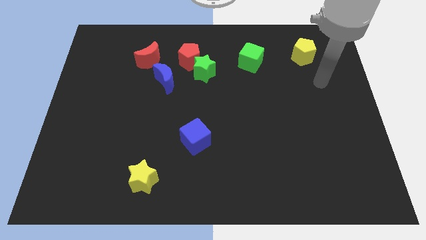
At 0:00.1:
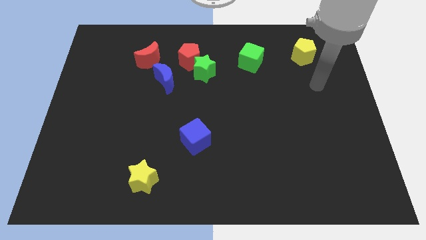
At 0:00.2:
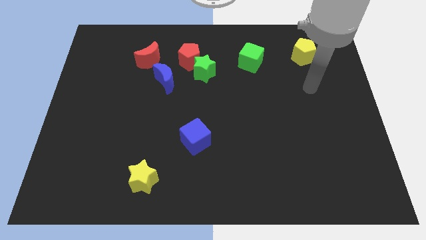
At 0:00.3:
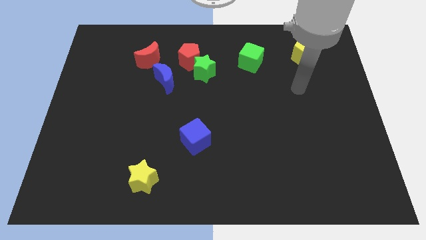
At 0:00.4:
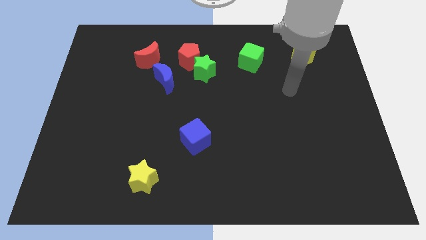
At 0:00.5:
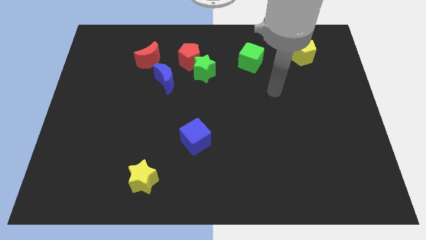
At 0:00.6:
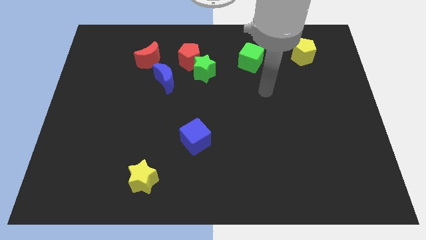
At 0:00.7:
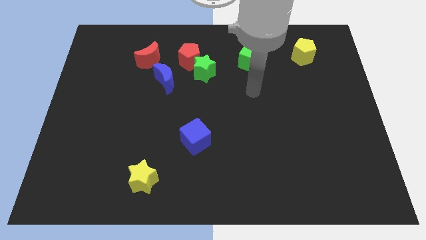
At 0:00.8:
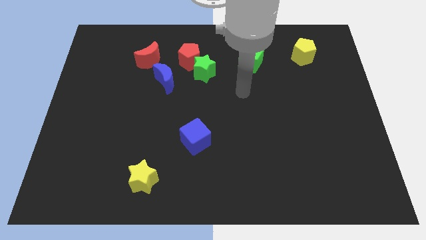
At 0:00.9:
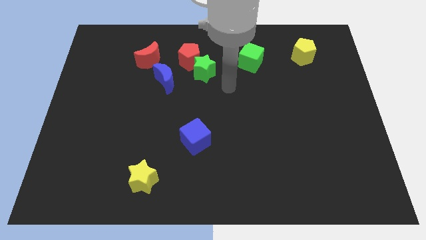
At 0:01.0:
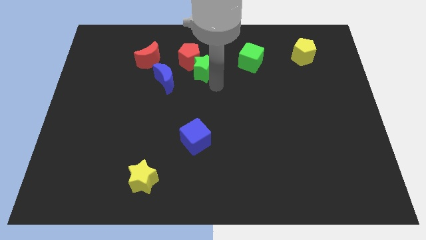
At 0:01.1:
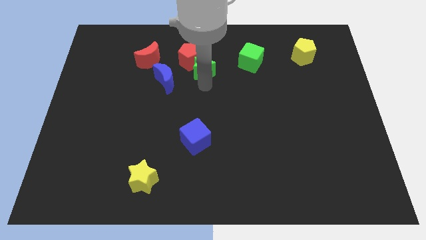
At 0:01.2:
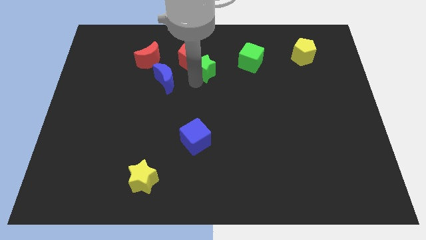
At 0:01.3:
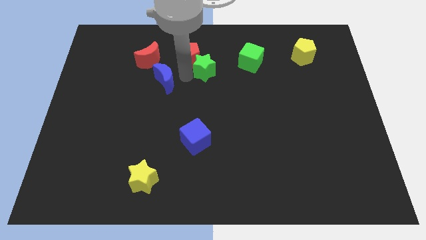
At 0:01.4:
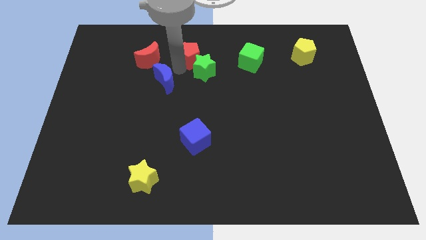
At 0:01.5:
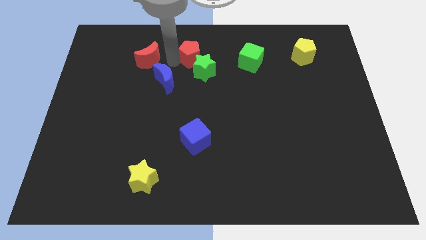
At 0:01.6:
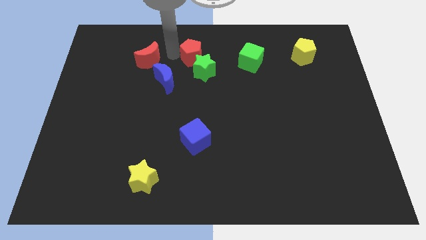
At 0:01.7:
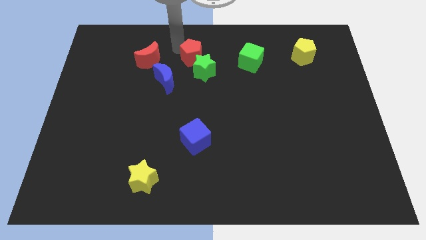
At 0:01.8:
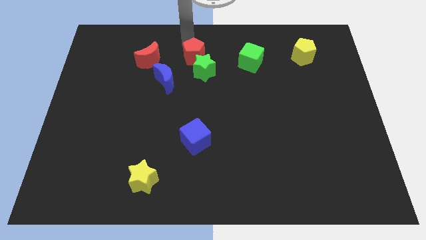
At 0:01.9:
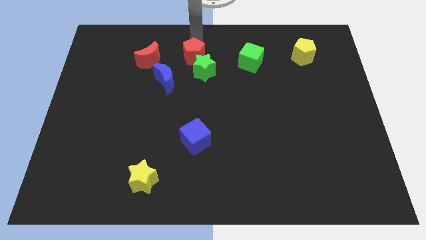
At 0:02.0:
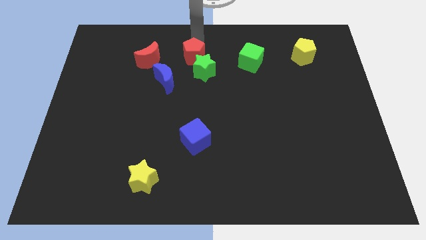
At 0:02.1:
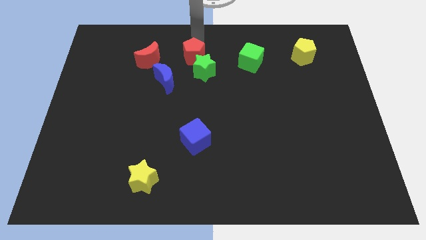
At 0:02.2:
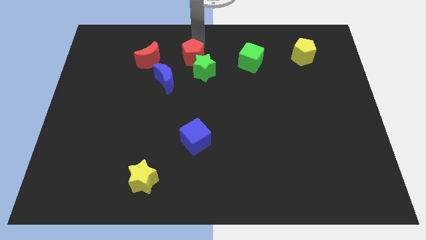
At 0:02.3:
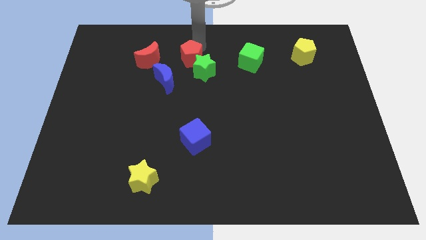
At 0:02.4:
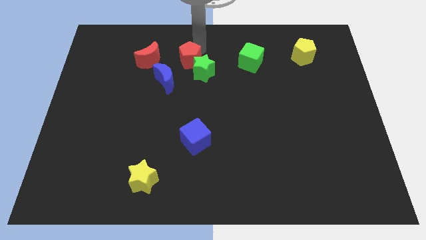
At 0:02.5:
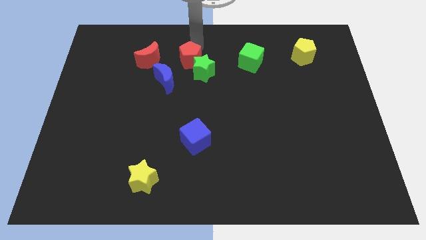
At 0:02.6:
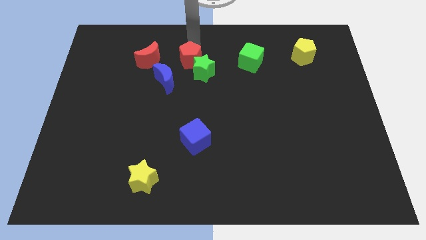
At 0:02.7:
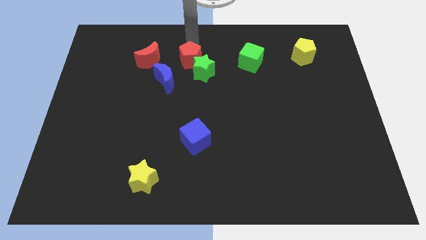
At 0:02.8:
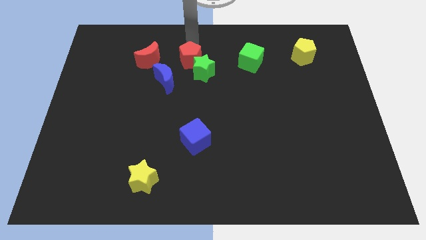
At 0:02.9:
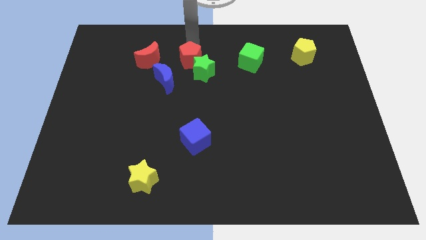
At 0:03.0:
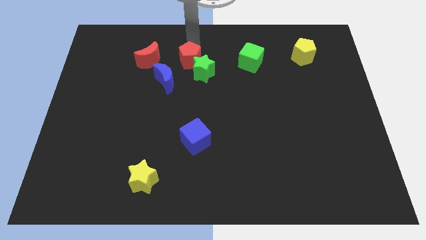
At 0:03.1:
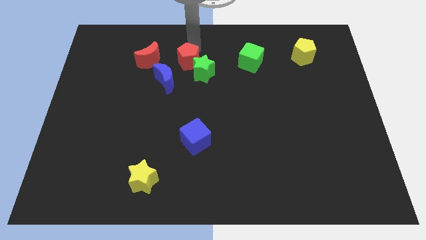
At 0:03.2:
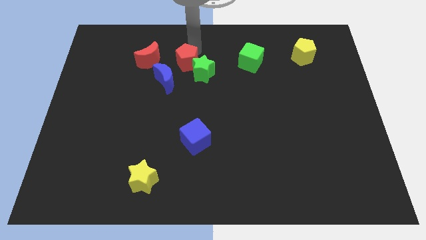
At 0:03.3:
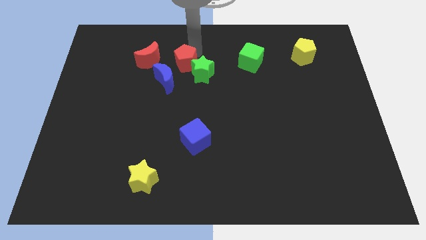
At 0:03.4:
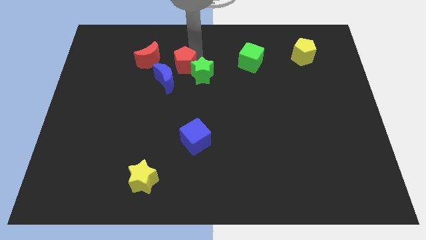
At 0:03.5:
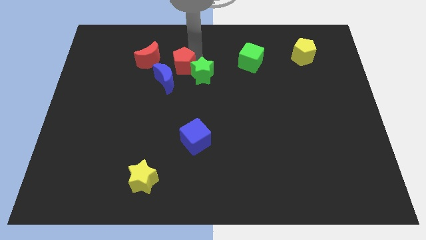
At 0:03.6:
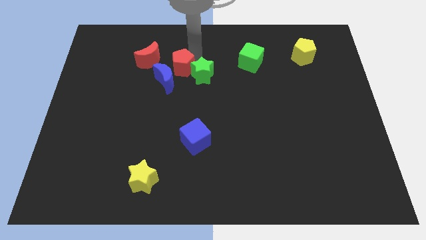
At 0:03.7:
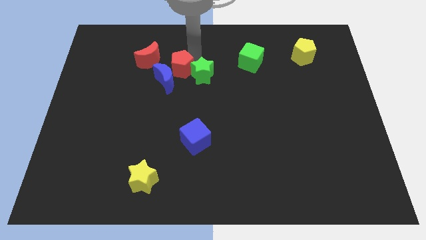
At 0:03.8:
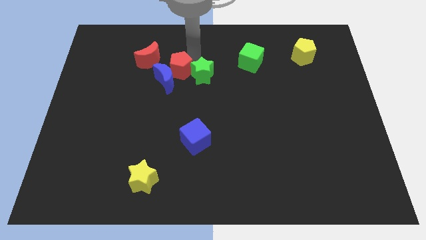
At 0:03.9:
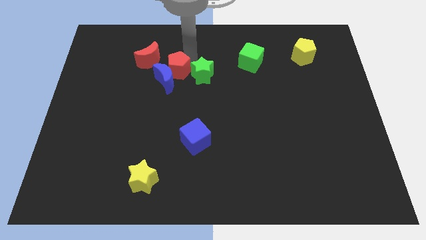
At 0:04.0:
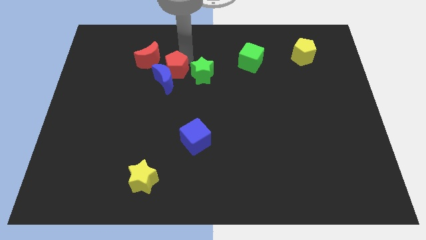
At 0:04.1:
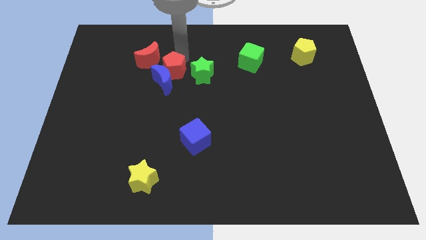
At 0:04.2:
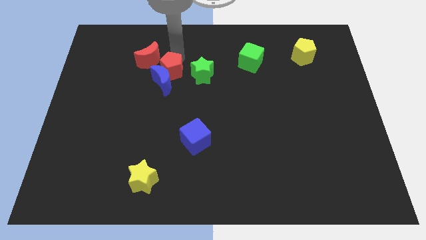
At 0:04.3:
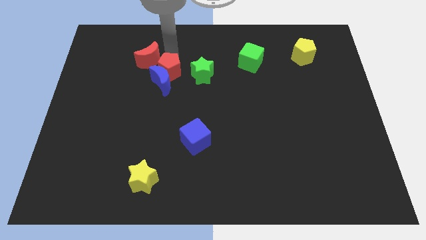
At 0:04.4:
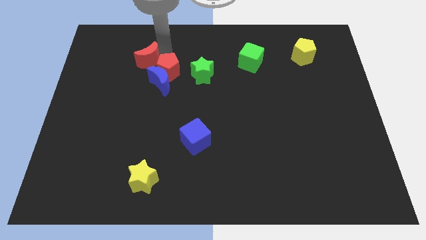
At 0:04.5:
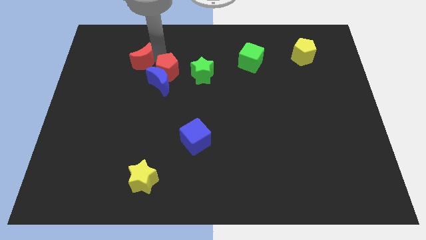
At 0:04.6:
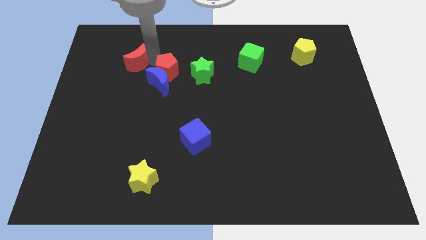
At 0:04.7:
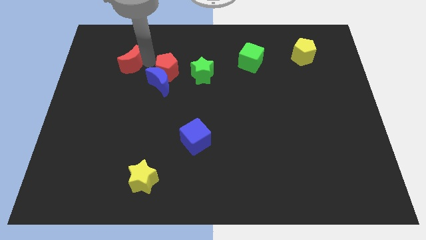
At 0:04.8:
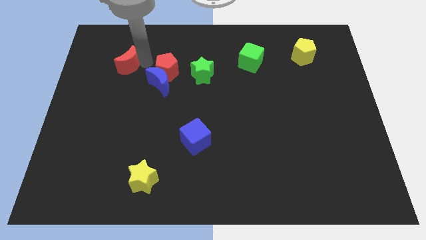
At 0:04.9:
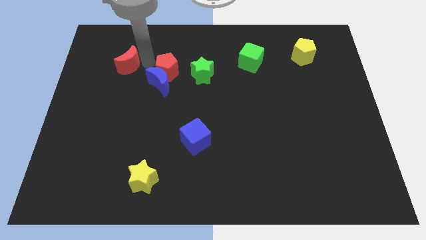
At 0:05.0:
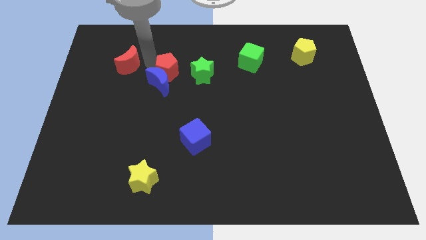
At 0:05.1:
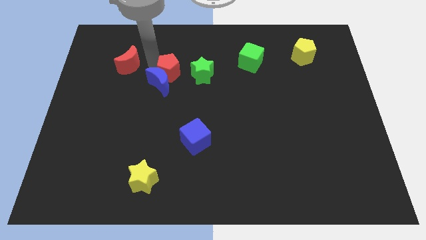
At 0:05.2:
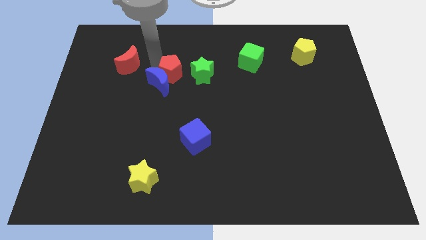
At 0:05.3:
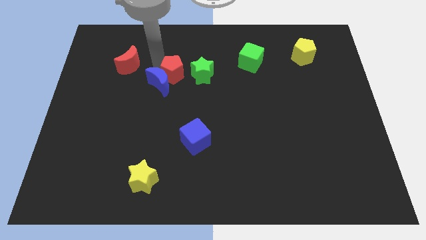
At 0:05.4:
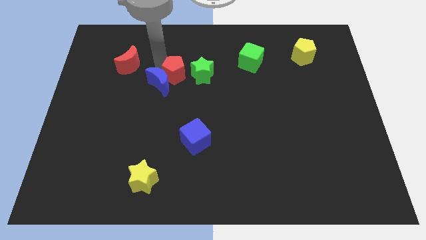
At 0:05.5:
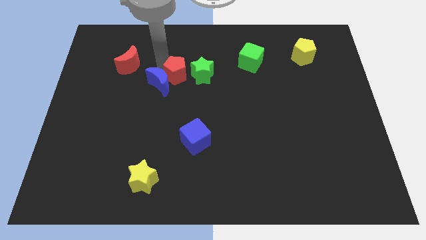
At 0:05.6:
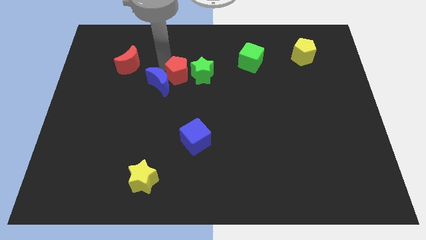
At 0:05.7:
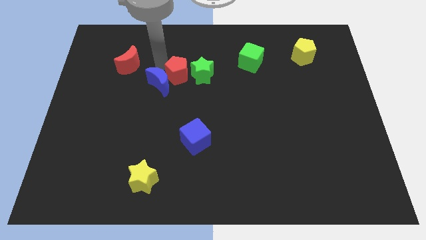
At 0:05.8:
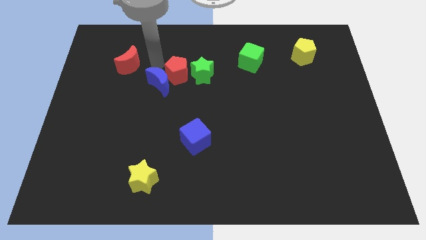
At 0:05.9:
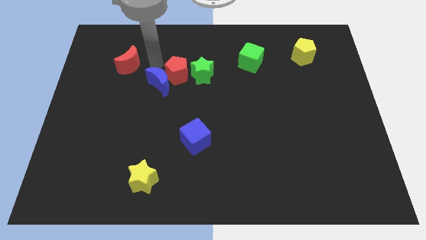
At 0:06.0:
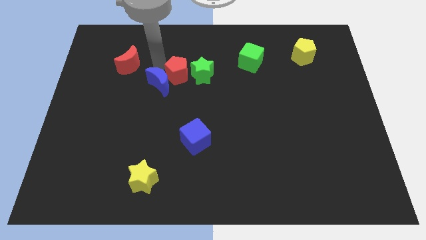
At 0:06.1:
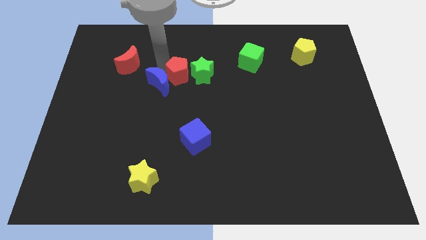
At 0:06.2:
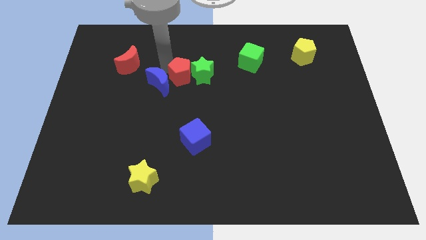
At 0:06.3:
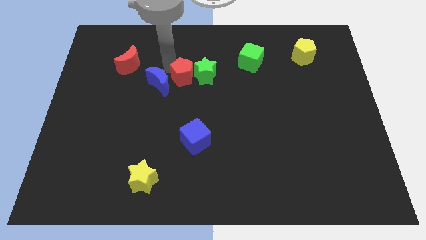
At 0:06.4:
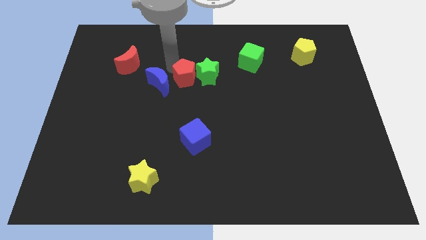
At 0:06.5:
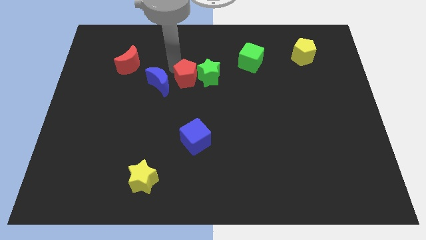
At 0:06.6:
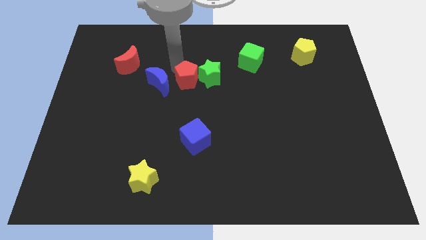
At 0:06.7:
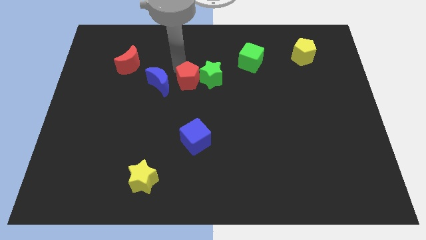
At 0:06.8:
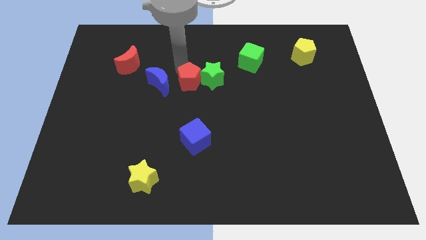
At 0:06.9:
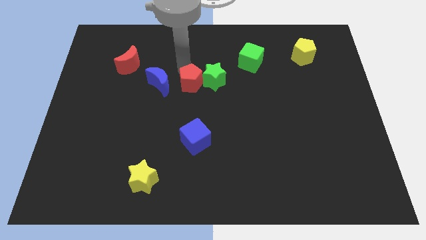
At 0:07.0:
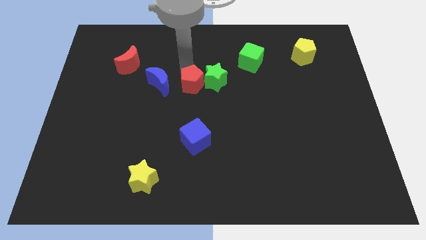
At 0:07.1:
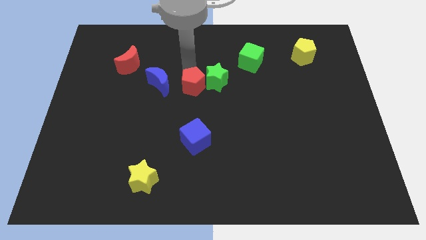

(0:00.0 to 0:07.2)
move the red pentagon above the blue cube

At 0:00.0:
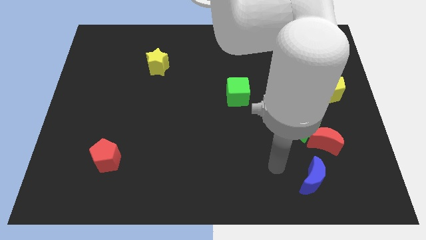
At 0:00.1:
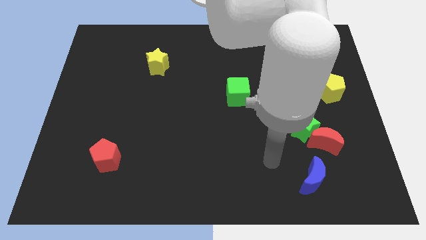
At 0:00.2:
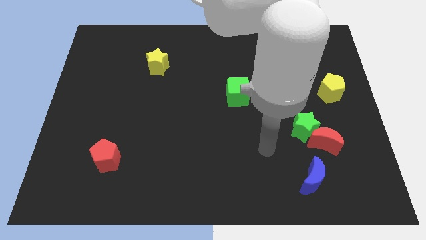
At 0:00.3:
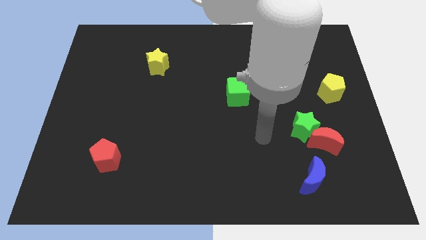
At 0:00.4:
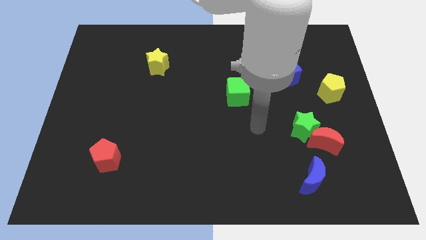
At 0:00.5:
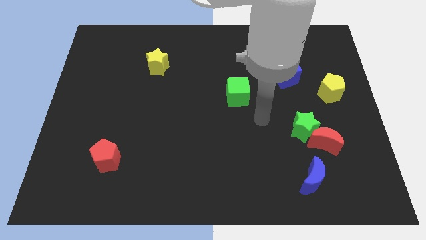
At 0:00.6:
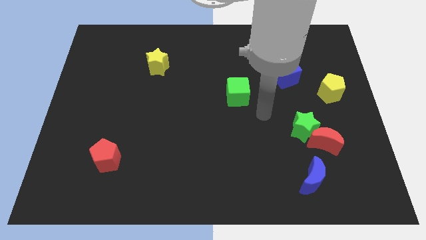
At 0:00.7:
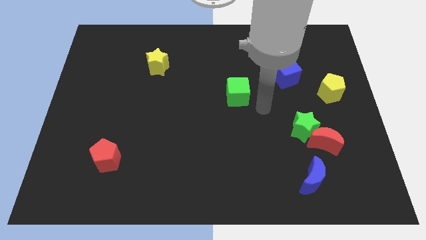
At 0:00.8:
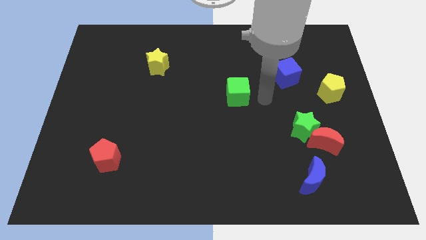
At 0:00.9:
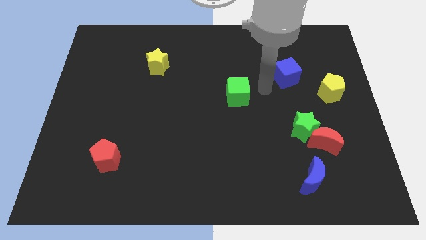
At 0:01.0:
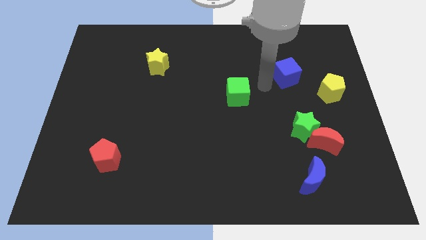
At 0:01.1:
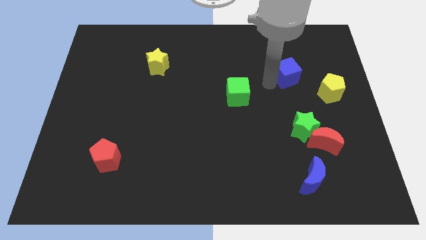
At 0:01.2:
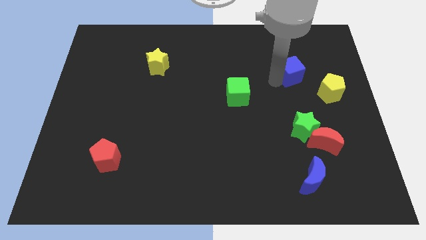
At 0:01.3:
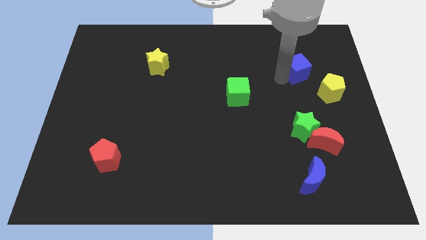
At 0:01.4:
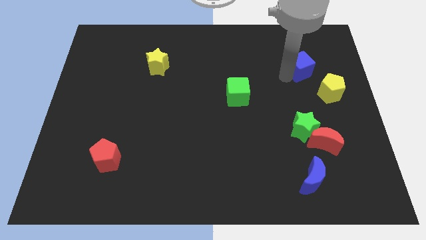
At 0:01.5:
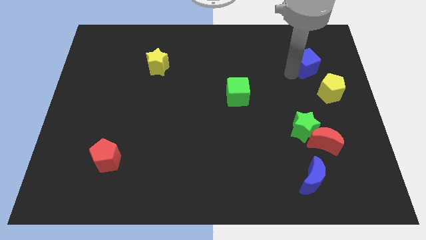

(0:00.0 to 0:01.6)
put the blue cube to the top side of the yellow pentagon
